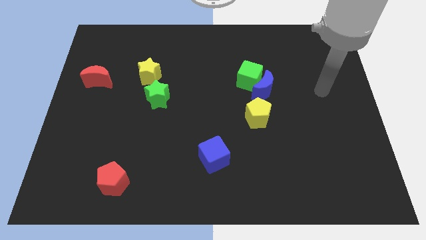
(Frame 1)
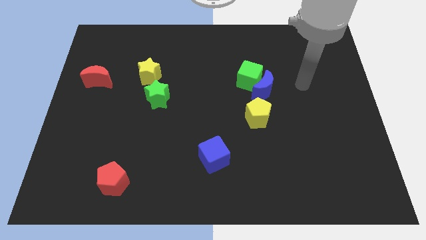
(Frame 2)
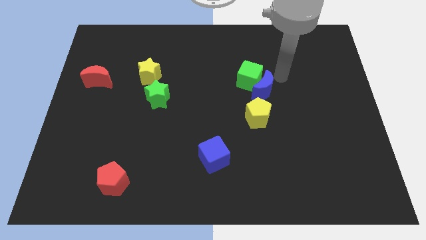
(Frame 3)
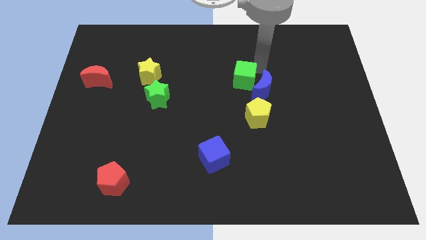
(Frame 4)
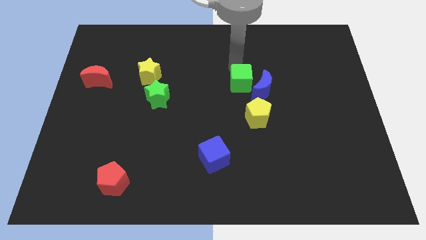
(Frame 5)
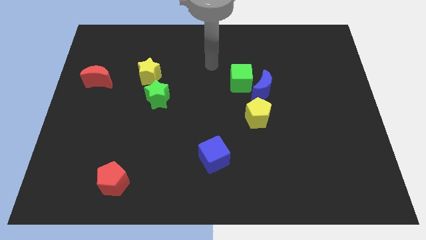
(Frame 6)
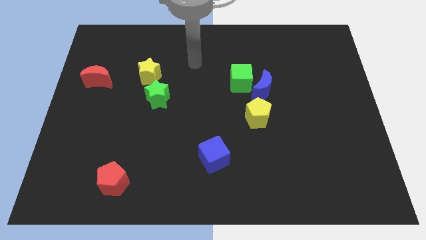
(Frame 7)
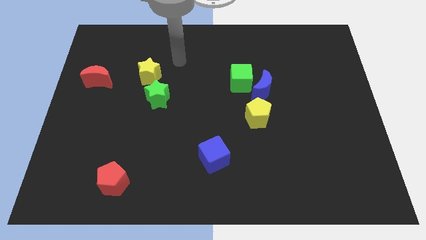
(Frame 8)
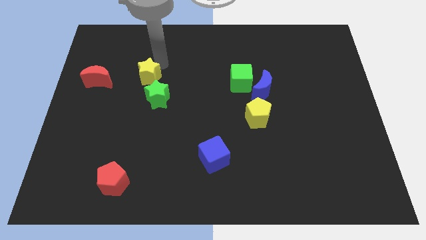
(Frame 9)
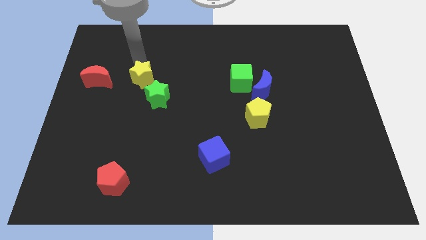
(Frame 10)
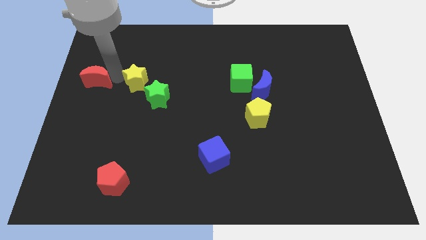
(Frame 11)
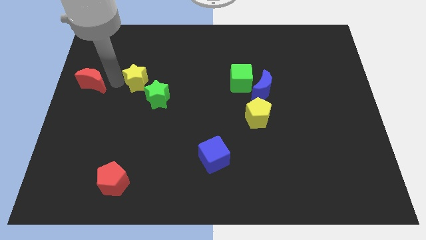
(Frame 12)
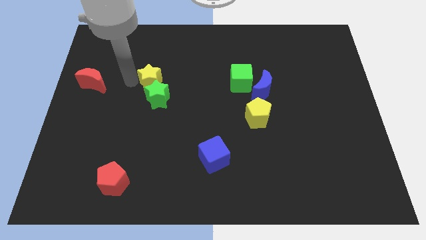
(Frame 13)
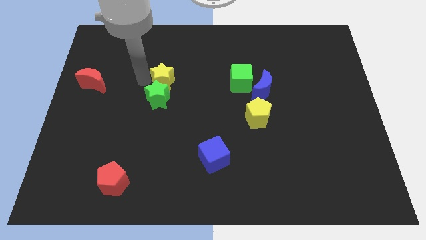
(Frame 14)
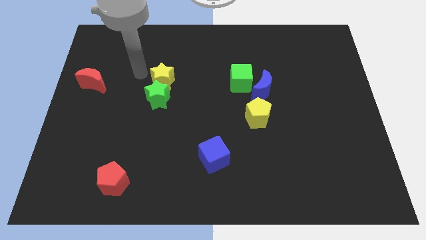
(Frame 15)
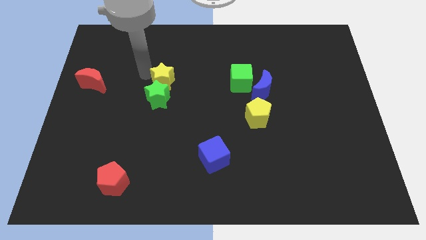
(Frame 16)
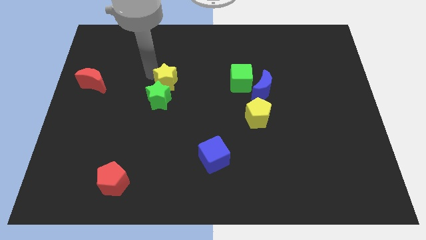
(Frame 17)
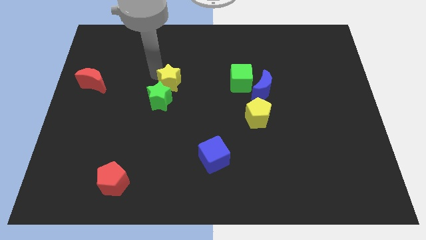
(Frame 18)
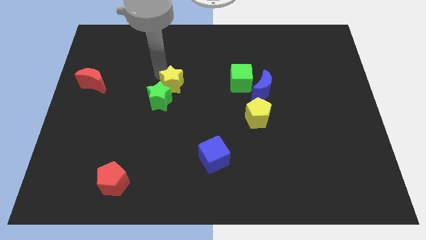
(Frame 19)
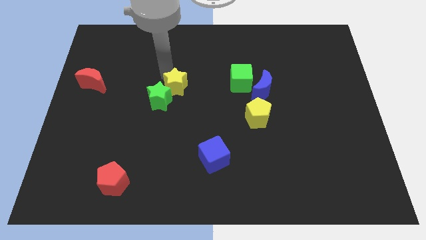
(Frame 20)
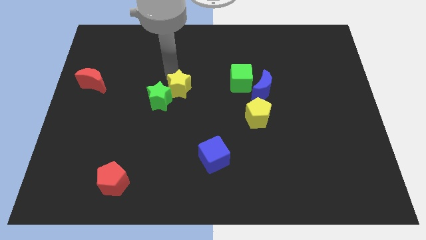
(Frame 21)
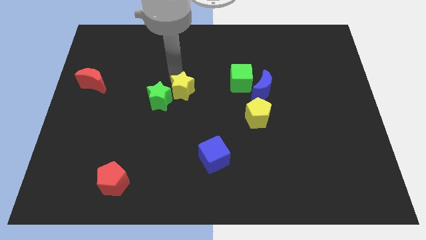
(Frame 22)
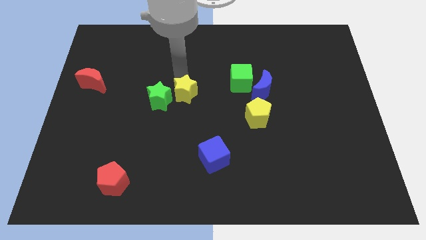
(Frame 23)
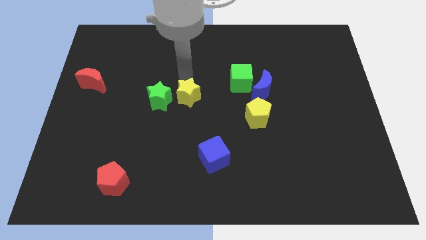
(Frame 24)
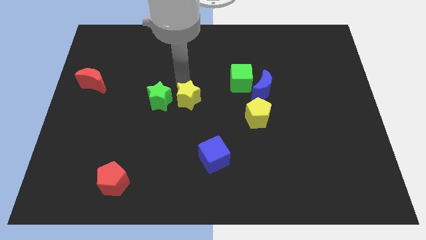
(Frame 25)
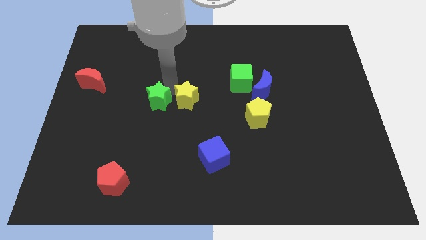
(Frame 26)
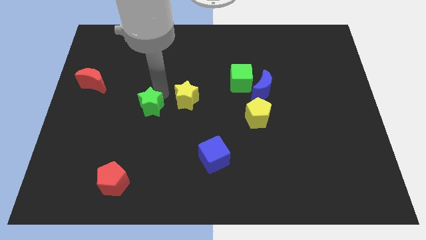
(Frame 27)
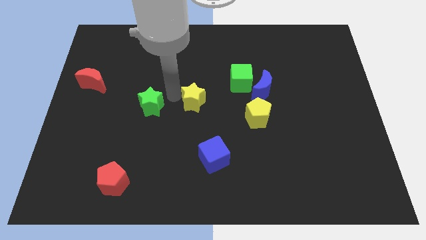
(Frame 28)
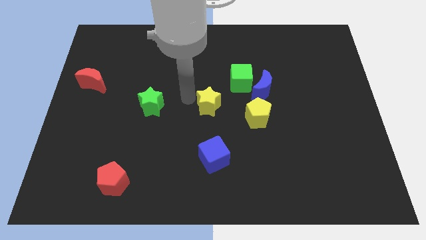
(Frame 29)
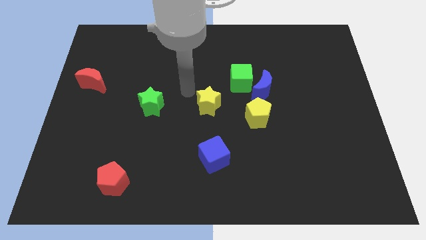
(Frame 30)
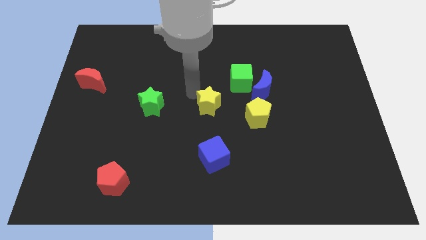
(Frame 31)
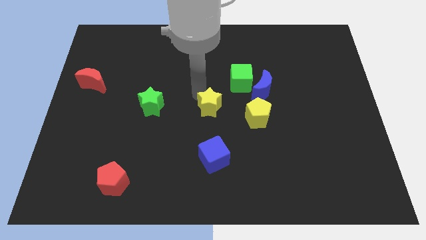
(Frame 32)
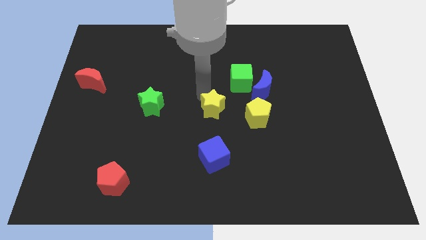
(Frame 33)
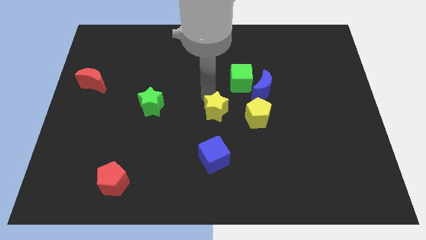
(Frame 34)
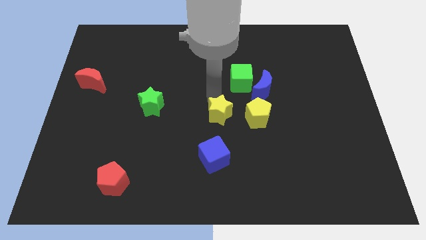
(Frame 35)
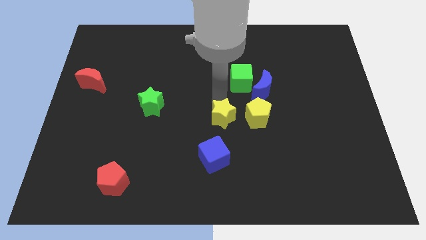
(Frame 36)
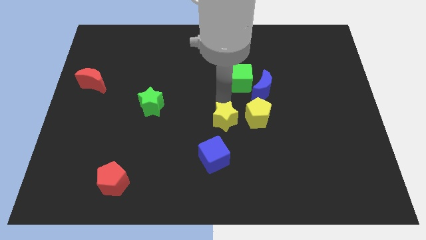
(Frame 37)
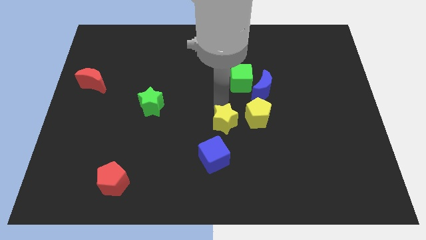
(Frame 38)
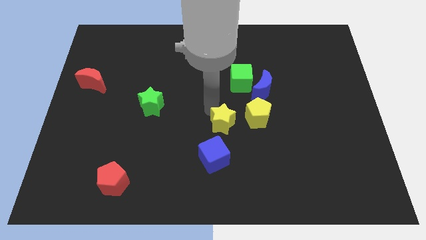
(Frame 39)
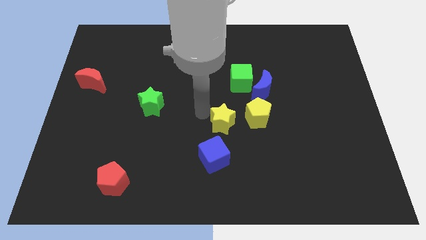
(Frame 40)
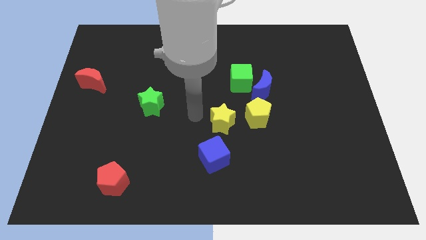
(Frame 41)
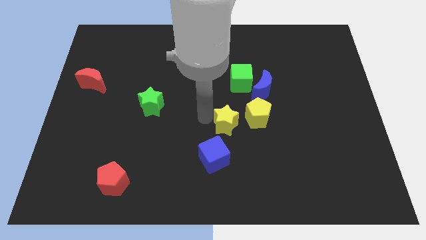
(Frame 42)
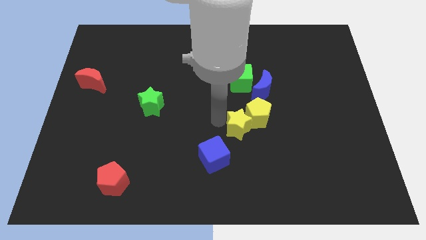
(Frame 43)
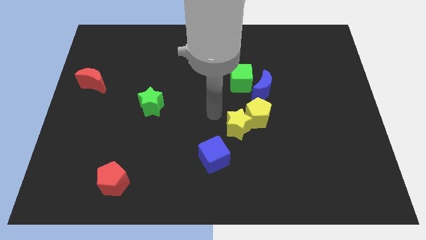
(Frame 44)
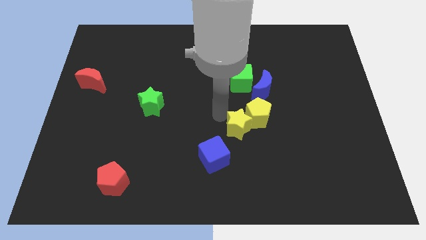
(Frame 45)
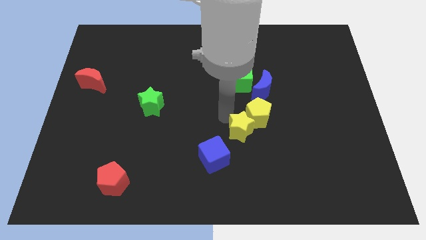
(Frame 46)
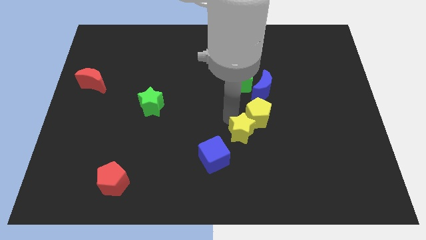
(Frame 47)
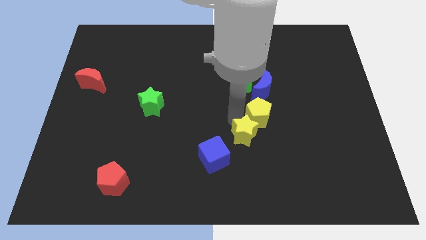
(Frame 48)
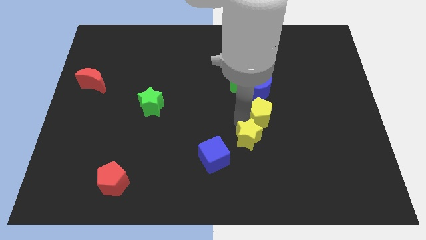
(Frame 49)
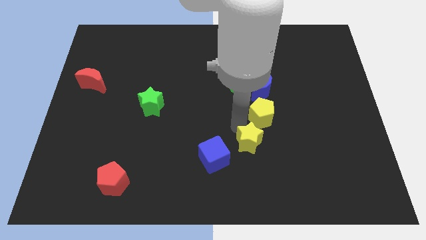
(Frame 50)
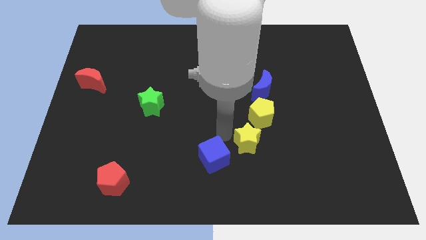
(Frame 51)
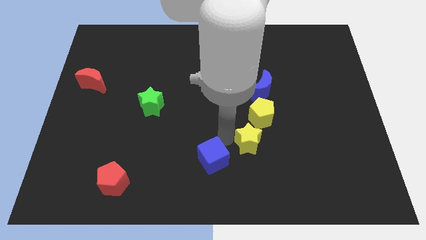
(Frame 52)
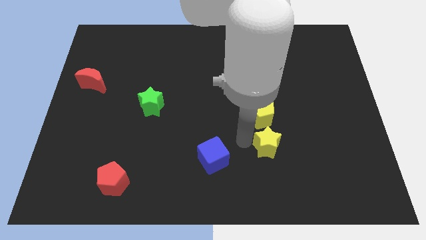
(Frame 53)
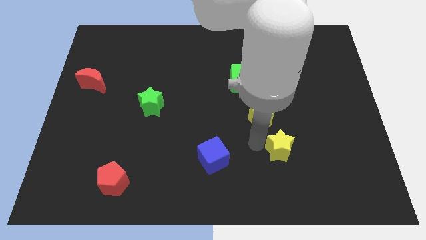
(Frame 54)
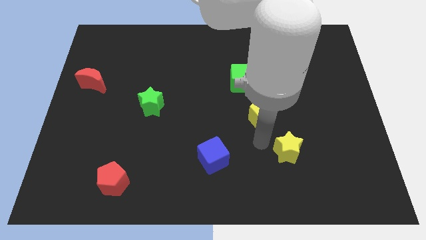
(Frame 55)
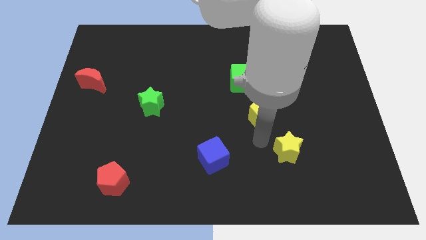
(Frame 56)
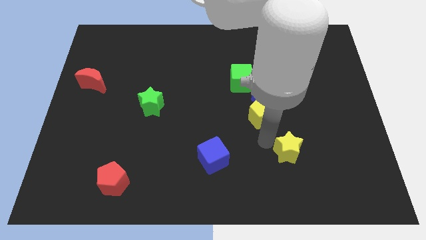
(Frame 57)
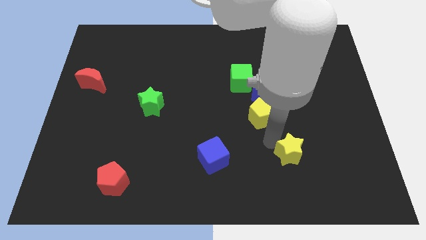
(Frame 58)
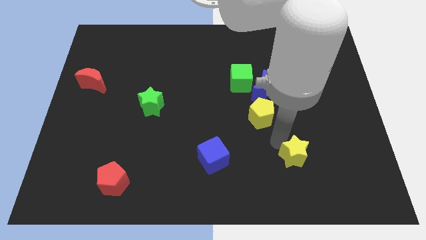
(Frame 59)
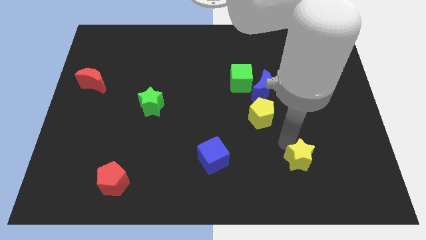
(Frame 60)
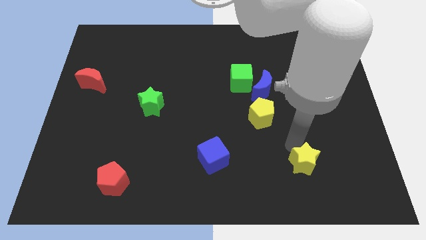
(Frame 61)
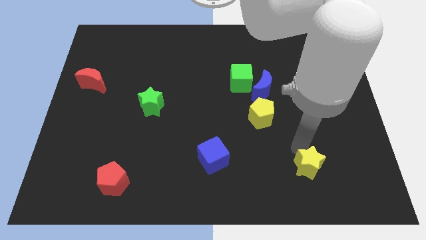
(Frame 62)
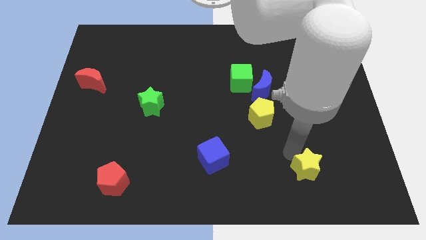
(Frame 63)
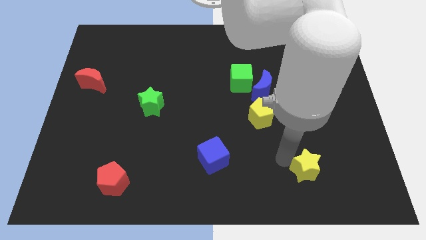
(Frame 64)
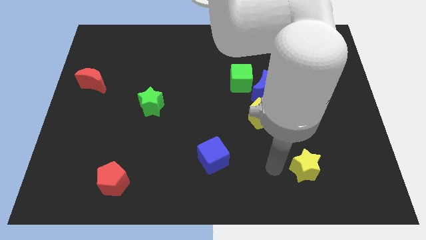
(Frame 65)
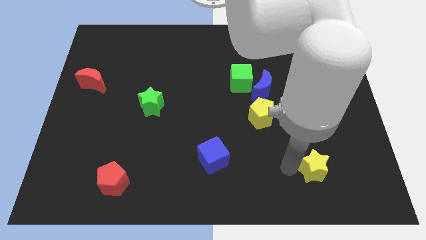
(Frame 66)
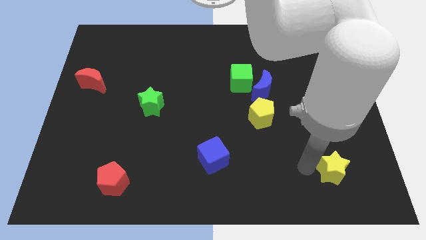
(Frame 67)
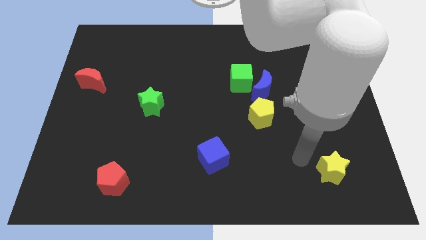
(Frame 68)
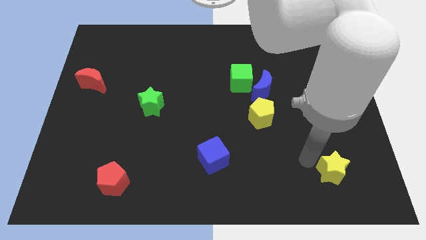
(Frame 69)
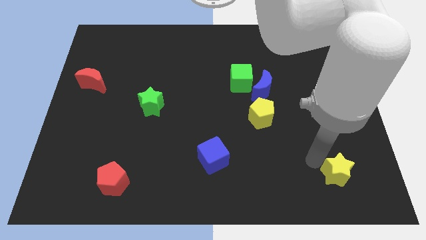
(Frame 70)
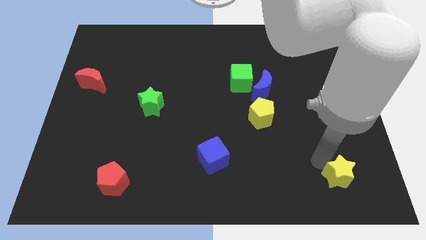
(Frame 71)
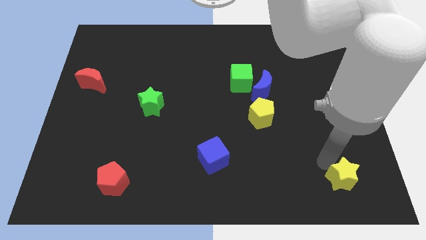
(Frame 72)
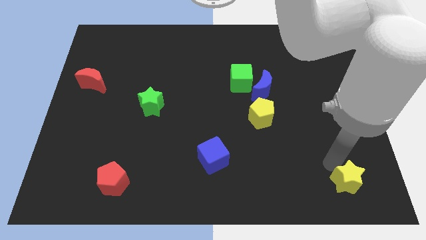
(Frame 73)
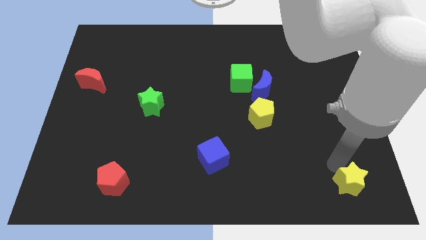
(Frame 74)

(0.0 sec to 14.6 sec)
put the yellow star to the bottom right of the board
